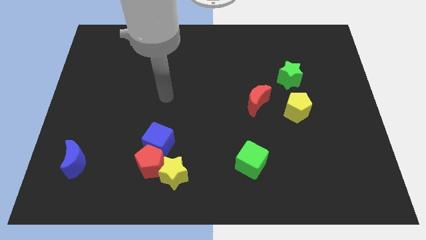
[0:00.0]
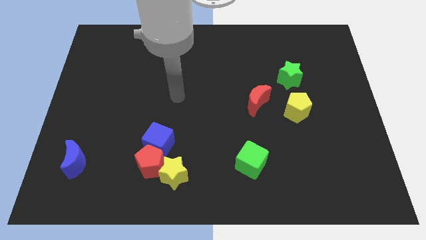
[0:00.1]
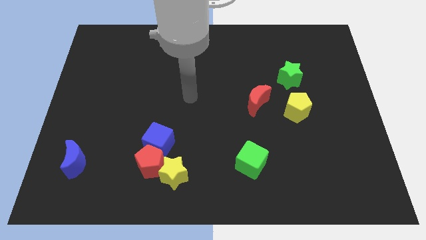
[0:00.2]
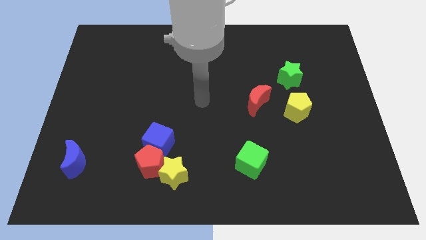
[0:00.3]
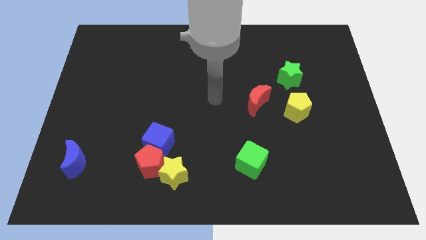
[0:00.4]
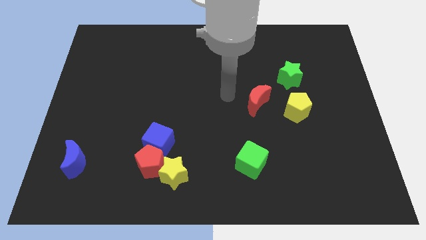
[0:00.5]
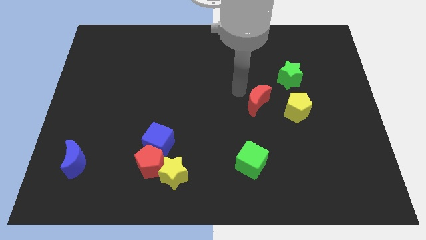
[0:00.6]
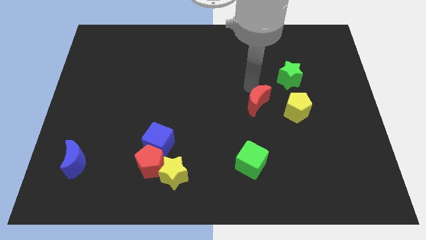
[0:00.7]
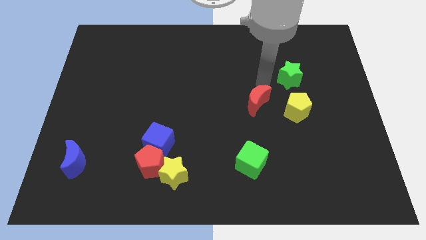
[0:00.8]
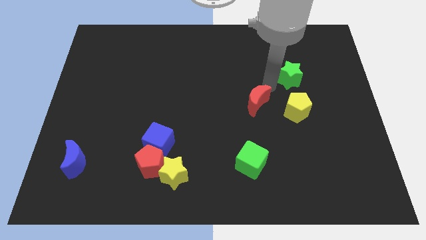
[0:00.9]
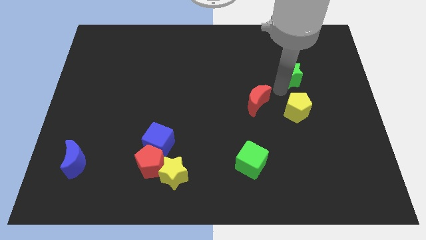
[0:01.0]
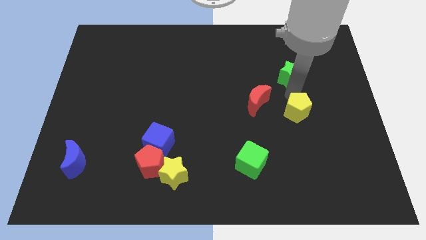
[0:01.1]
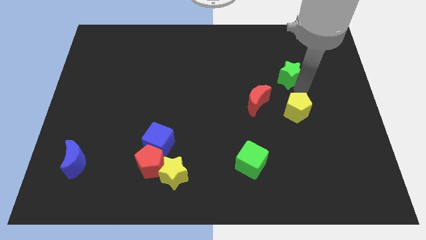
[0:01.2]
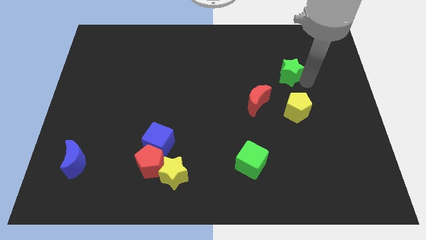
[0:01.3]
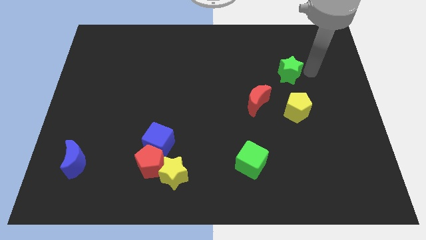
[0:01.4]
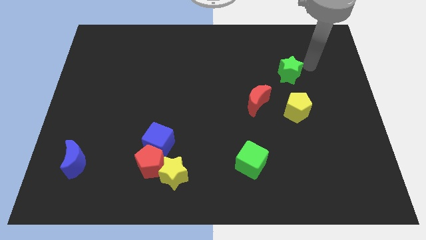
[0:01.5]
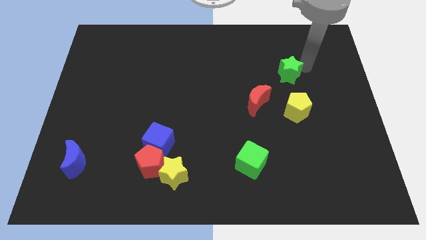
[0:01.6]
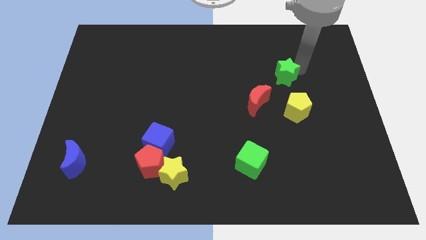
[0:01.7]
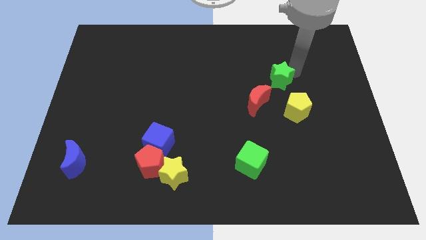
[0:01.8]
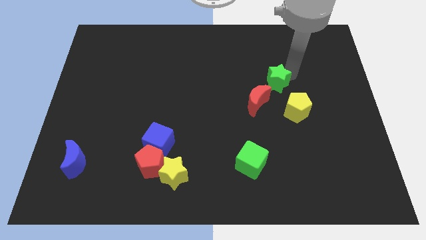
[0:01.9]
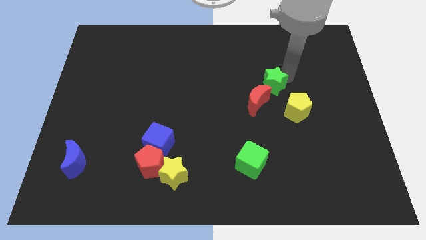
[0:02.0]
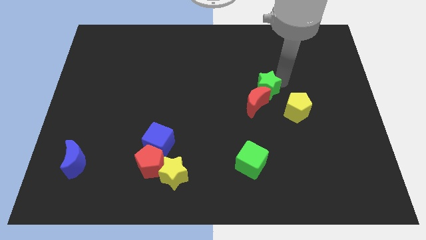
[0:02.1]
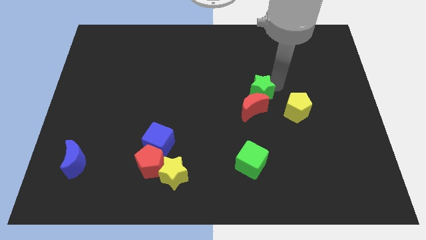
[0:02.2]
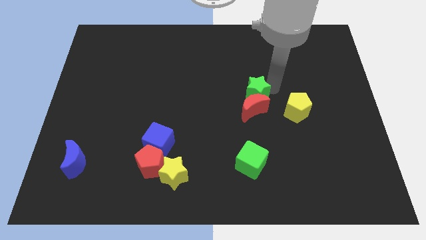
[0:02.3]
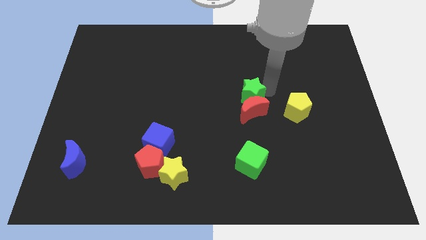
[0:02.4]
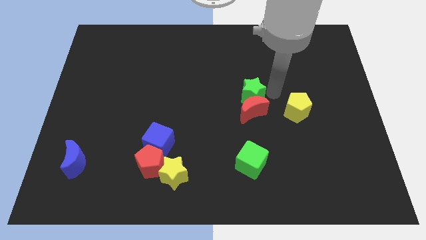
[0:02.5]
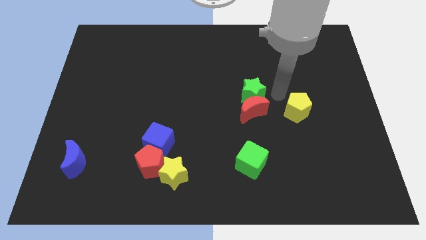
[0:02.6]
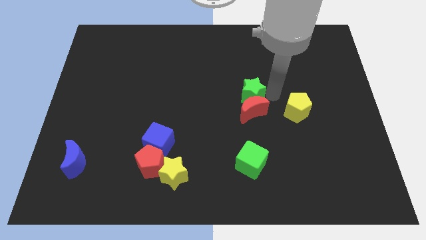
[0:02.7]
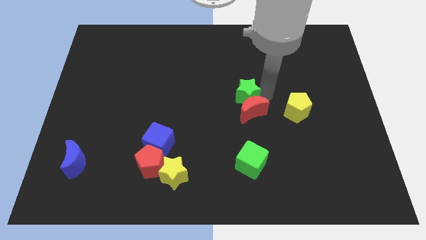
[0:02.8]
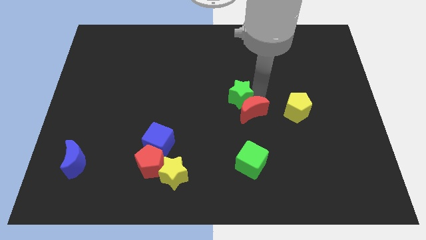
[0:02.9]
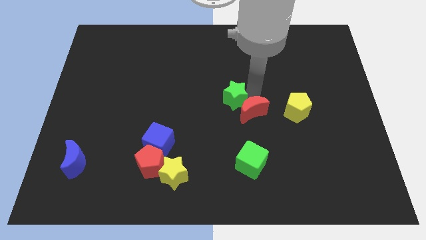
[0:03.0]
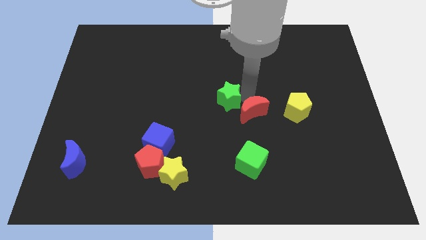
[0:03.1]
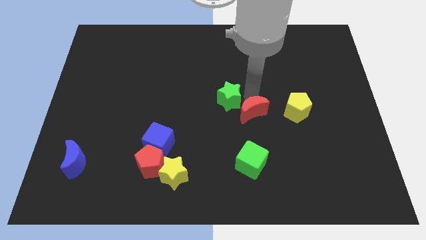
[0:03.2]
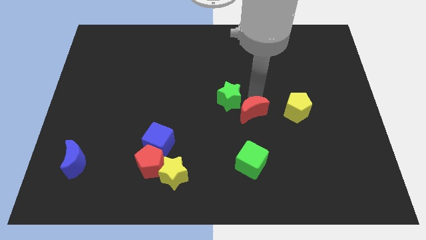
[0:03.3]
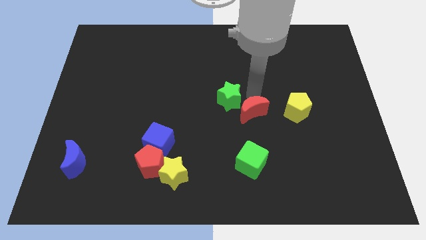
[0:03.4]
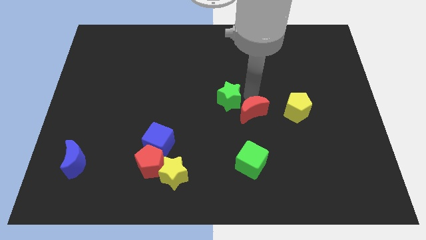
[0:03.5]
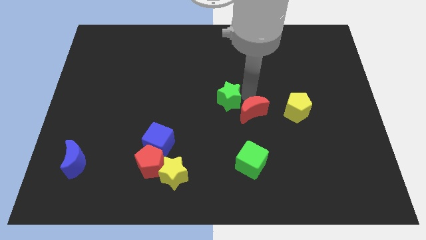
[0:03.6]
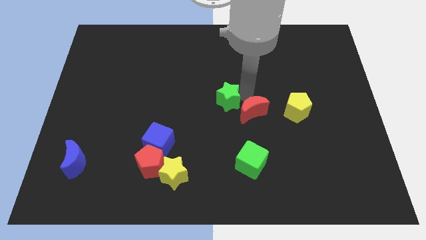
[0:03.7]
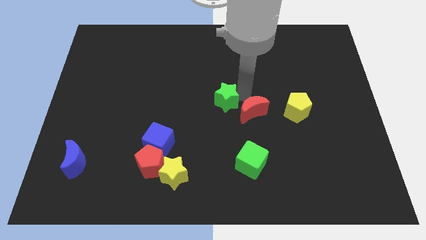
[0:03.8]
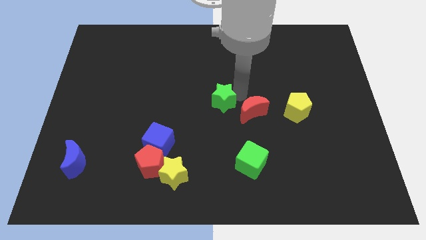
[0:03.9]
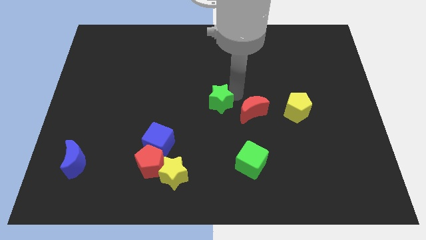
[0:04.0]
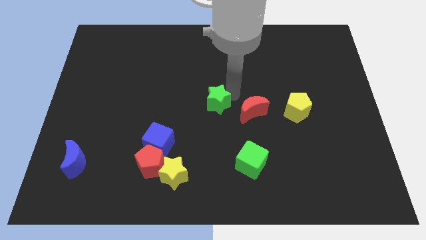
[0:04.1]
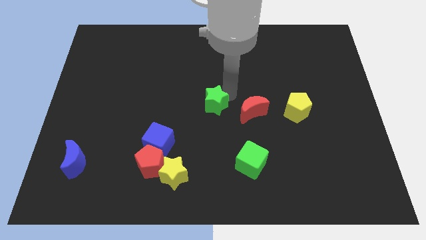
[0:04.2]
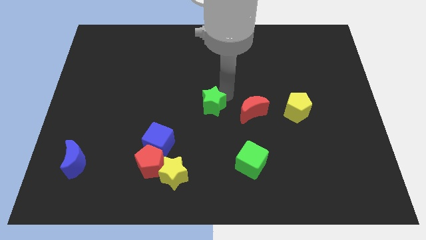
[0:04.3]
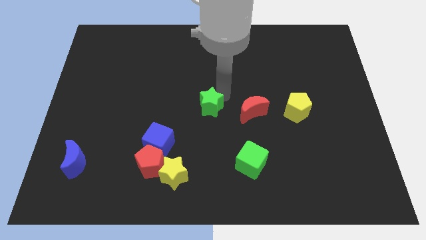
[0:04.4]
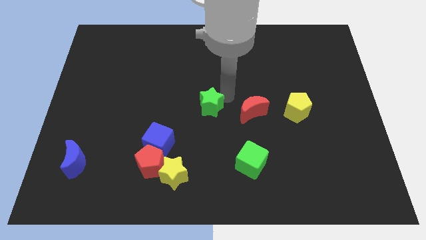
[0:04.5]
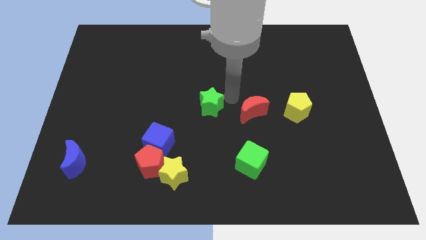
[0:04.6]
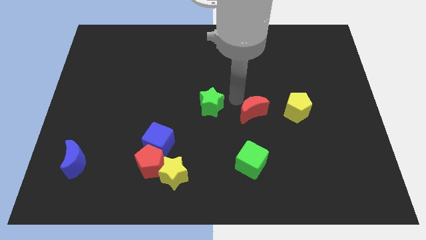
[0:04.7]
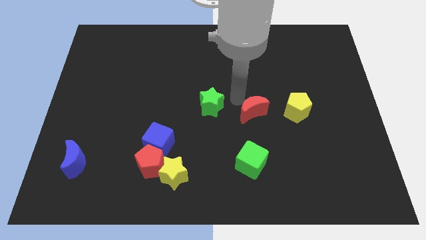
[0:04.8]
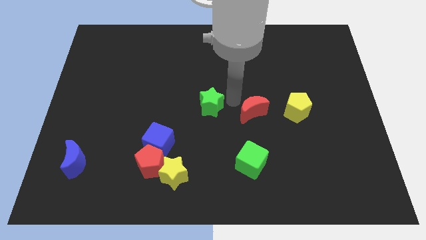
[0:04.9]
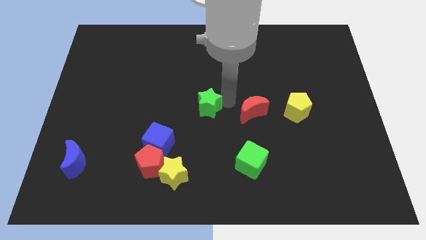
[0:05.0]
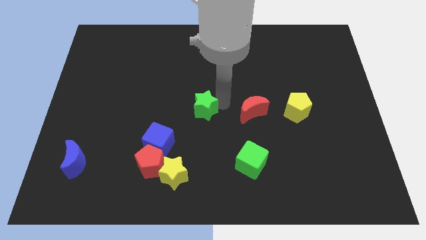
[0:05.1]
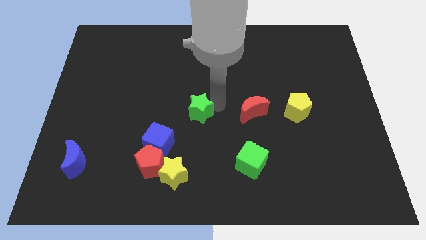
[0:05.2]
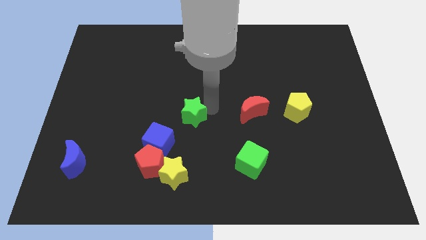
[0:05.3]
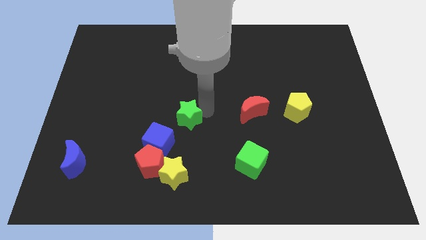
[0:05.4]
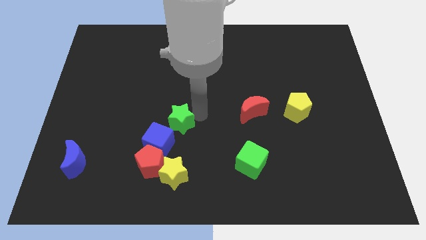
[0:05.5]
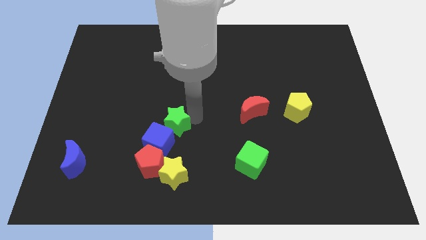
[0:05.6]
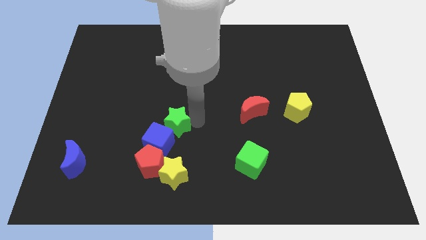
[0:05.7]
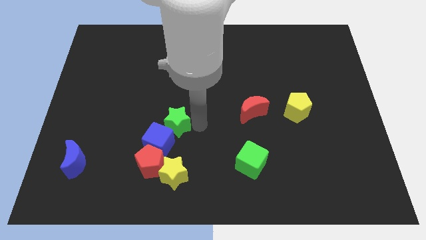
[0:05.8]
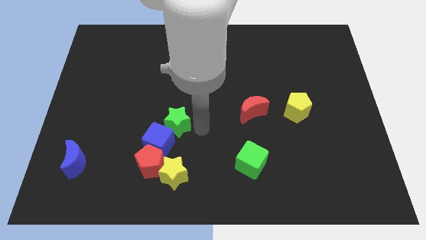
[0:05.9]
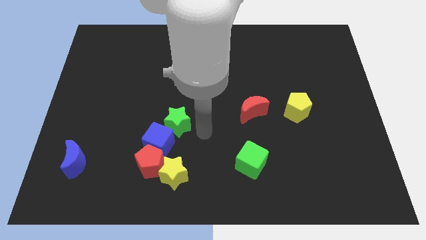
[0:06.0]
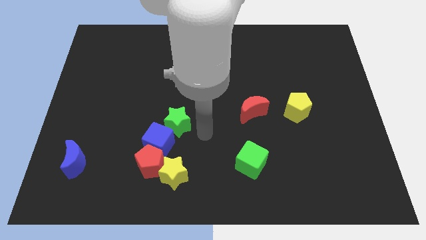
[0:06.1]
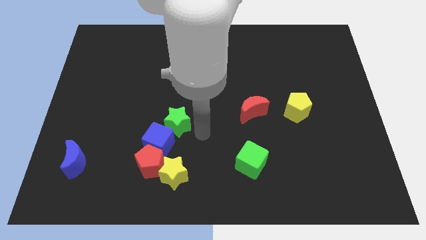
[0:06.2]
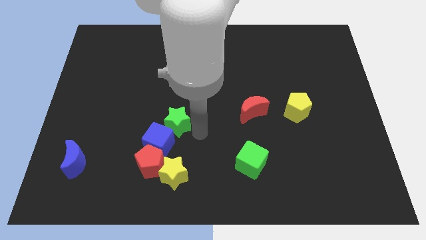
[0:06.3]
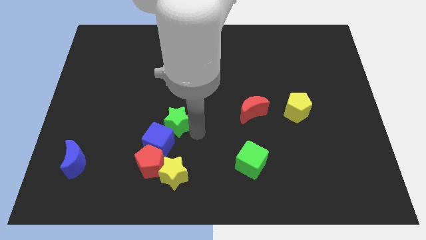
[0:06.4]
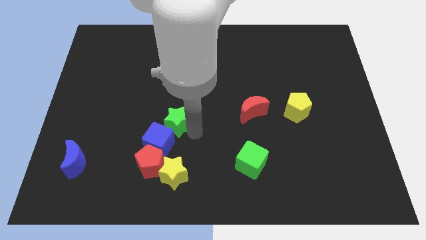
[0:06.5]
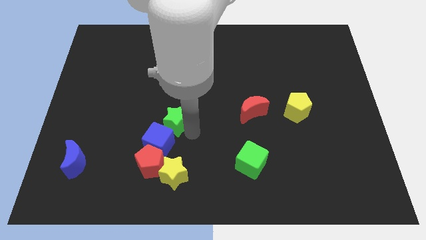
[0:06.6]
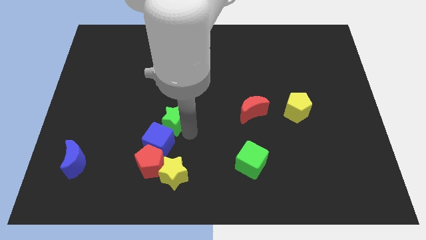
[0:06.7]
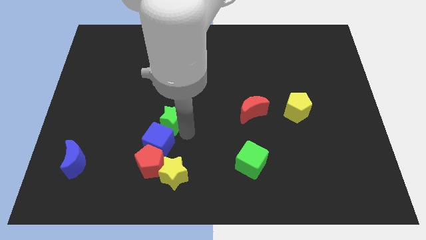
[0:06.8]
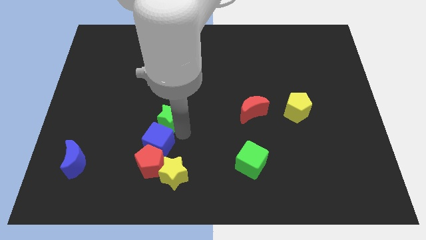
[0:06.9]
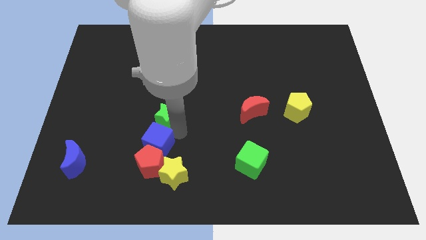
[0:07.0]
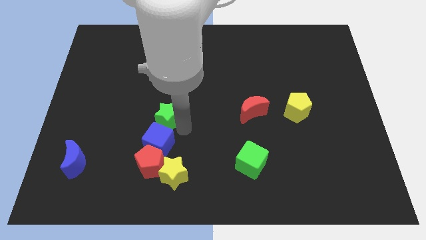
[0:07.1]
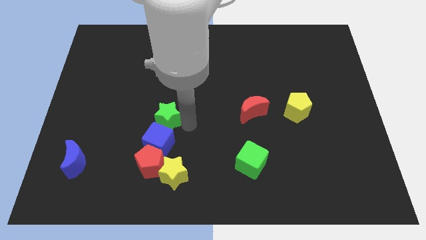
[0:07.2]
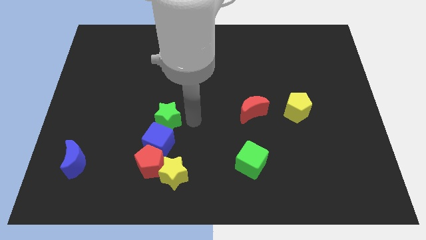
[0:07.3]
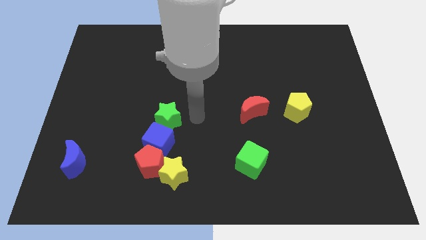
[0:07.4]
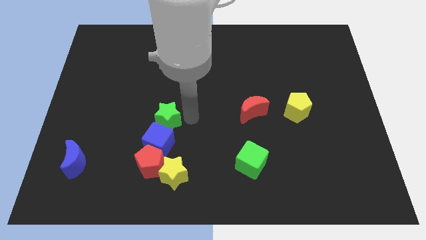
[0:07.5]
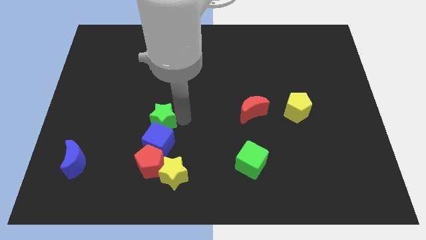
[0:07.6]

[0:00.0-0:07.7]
slide the green star to the top left side of the blue cube
